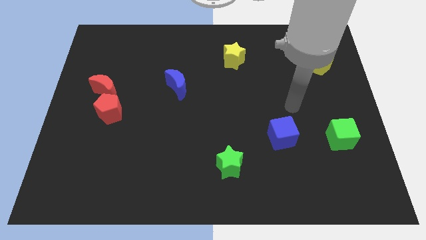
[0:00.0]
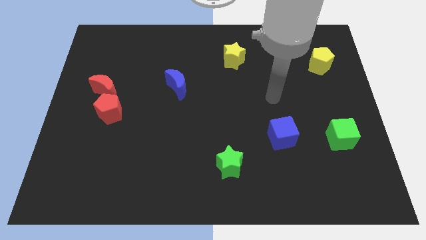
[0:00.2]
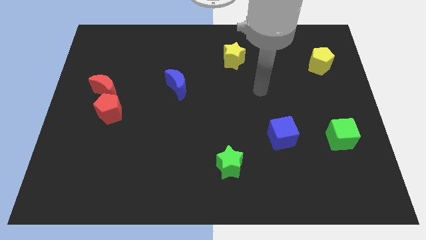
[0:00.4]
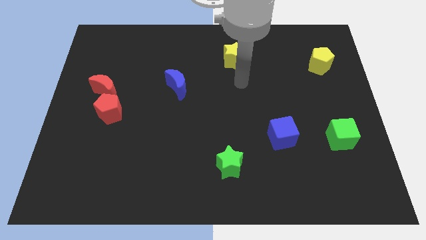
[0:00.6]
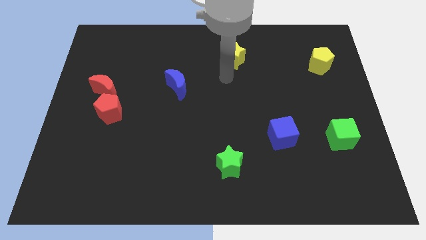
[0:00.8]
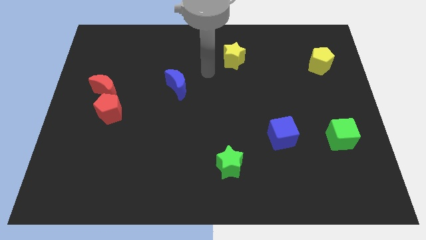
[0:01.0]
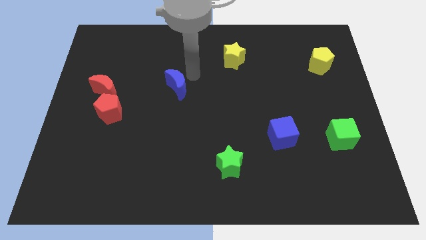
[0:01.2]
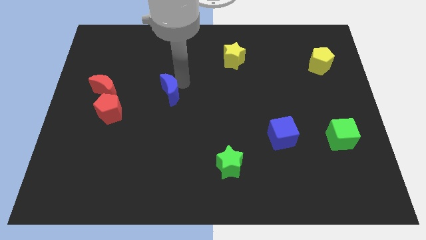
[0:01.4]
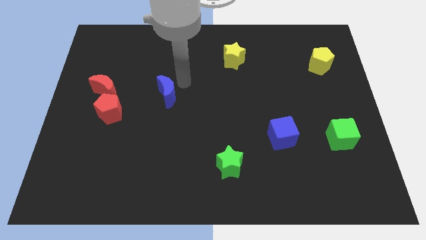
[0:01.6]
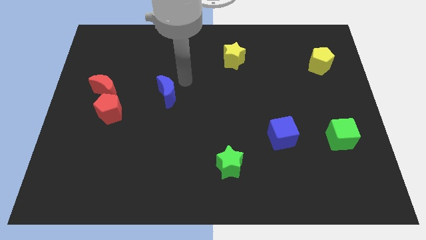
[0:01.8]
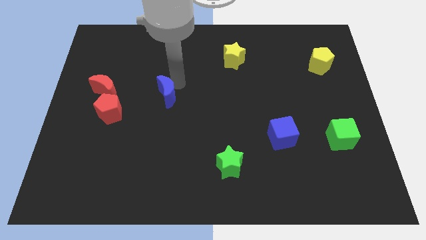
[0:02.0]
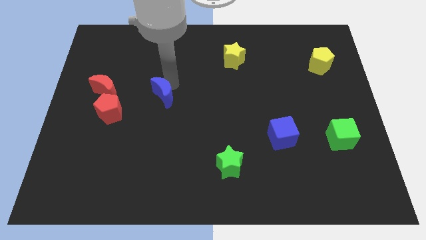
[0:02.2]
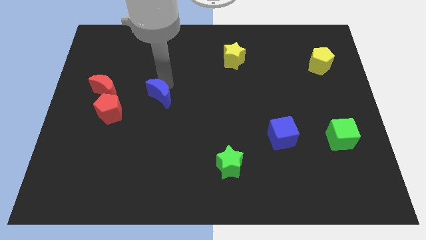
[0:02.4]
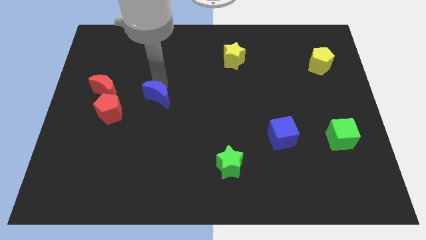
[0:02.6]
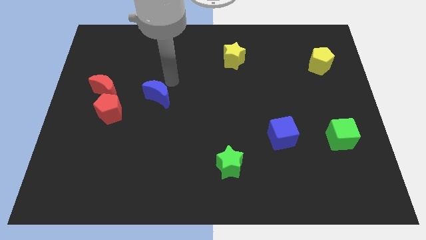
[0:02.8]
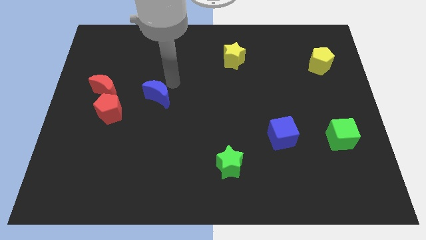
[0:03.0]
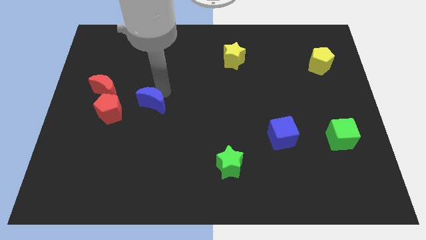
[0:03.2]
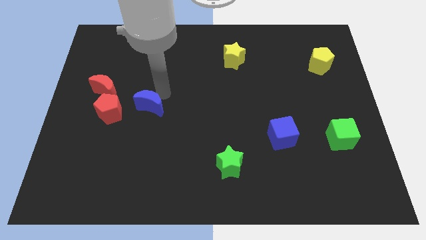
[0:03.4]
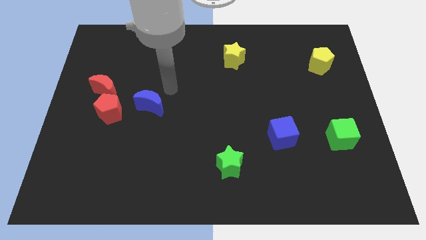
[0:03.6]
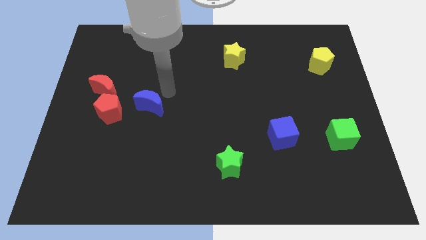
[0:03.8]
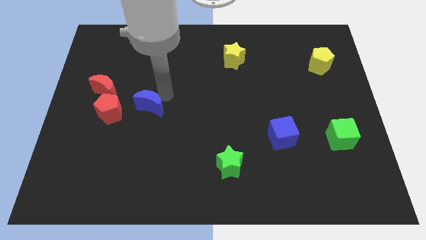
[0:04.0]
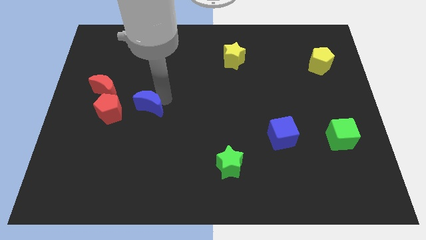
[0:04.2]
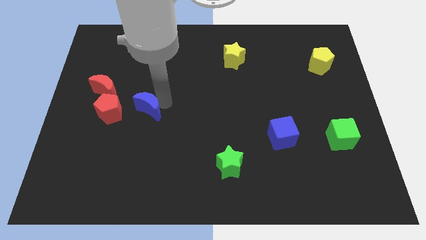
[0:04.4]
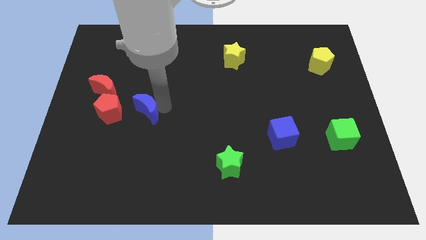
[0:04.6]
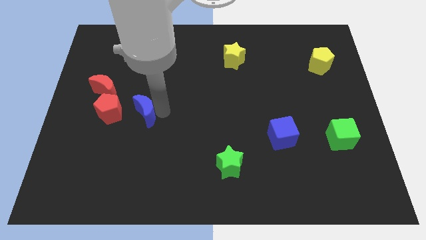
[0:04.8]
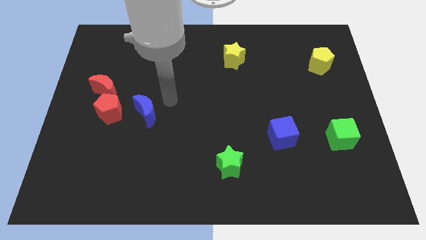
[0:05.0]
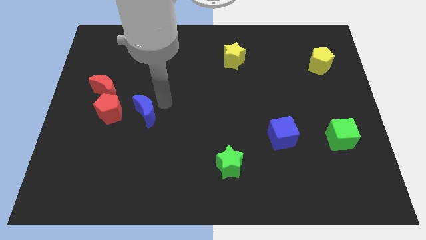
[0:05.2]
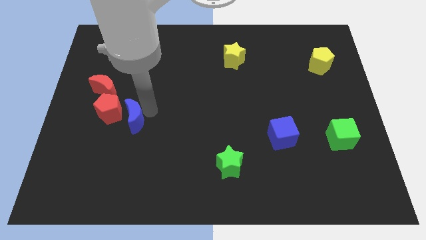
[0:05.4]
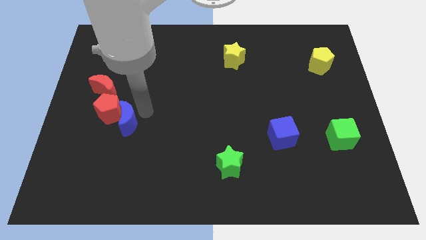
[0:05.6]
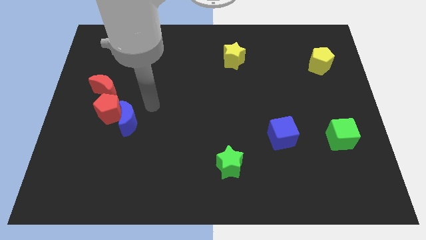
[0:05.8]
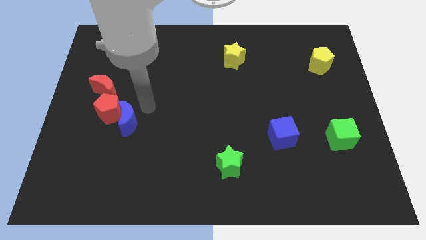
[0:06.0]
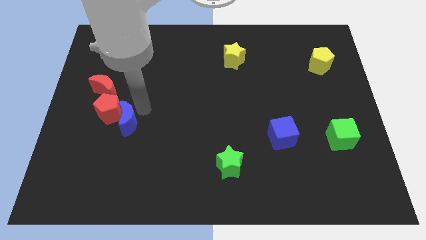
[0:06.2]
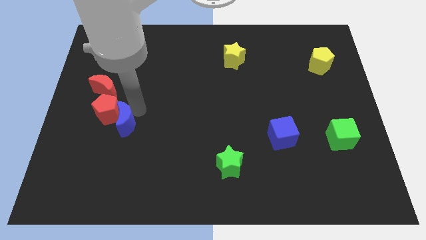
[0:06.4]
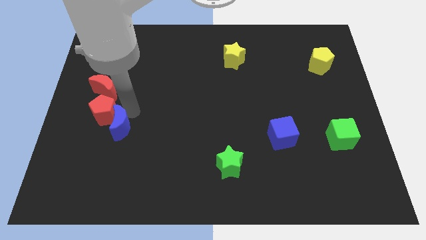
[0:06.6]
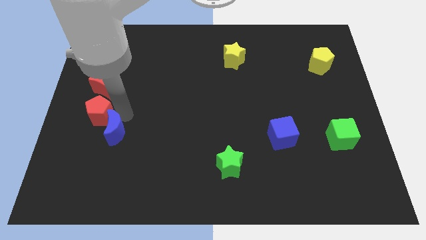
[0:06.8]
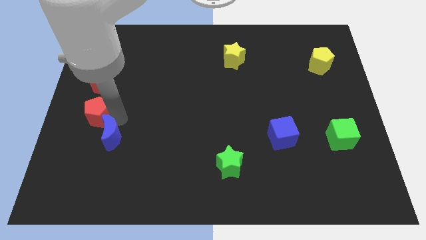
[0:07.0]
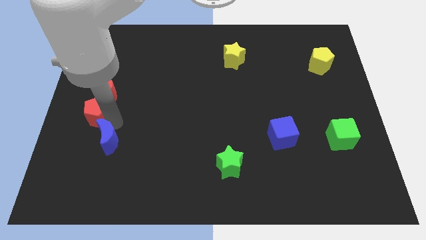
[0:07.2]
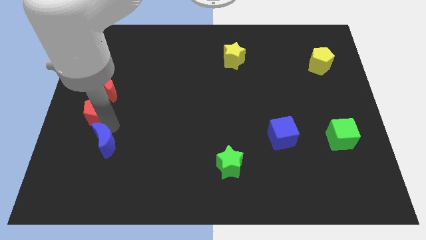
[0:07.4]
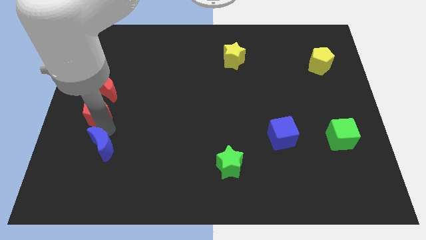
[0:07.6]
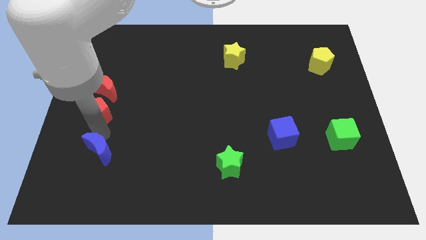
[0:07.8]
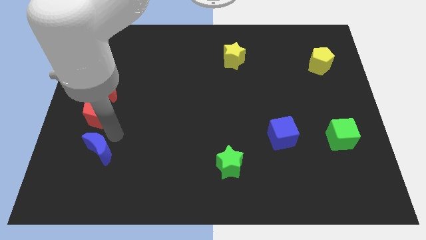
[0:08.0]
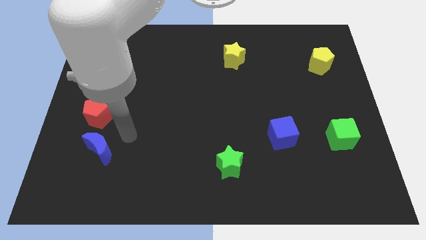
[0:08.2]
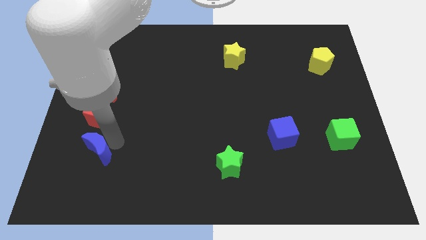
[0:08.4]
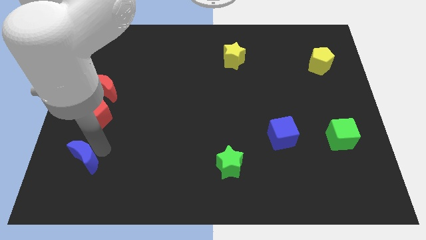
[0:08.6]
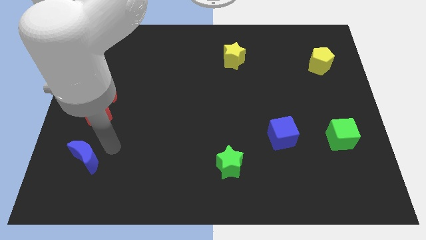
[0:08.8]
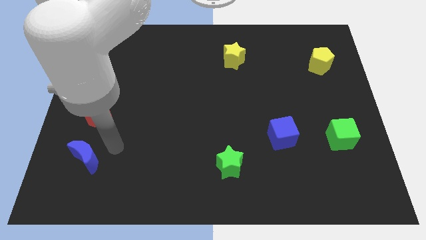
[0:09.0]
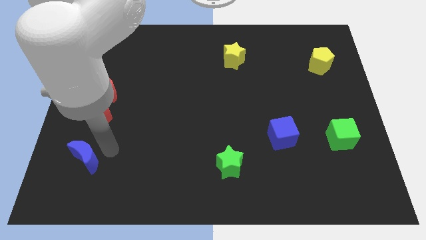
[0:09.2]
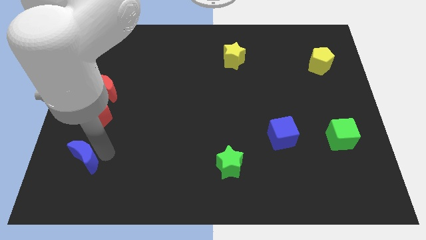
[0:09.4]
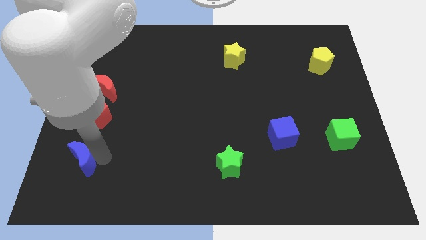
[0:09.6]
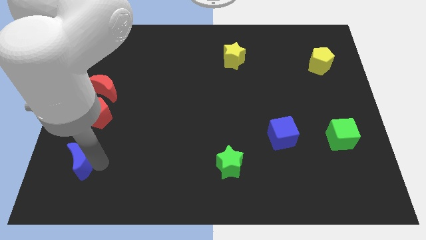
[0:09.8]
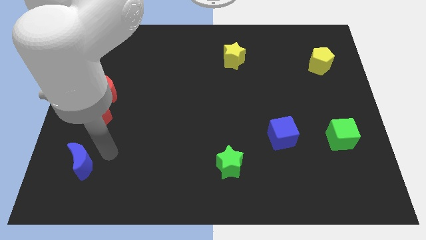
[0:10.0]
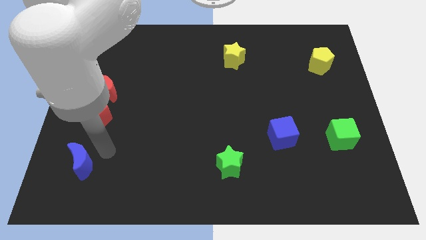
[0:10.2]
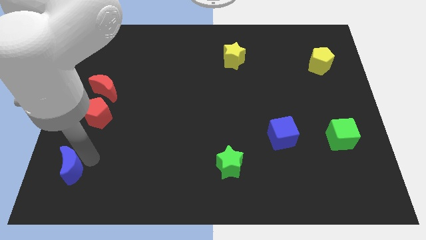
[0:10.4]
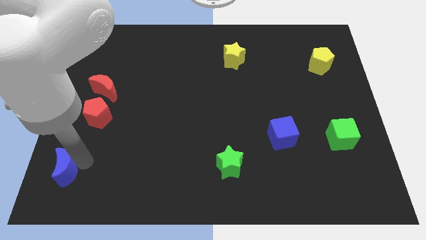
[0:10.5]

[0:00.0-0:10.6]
put the blue moon to the bottom left corner

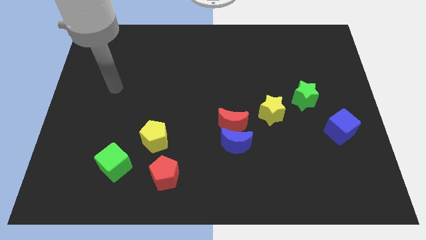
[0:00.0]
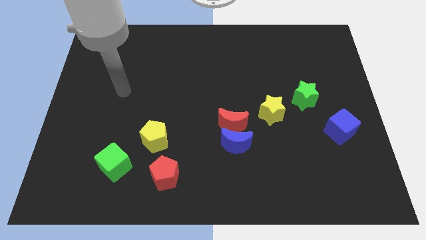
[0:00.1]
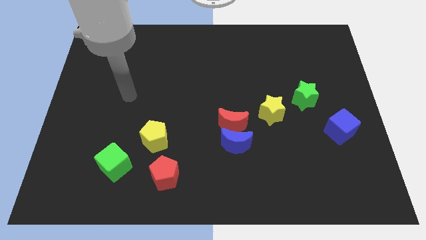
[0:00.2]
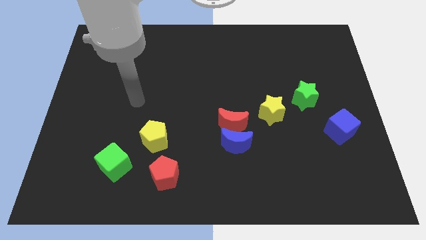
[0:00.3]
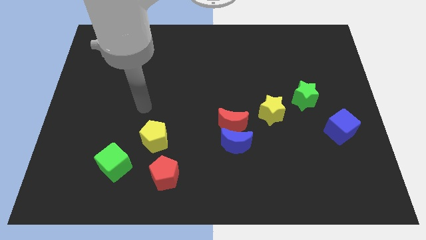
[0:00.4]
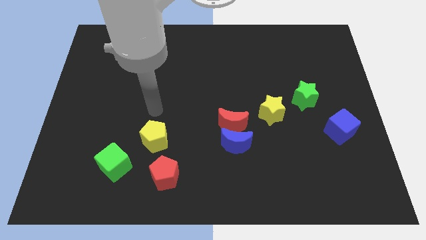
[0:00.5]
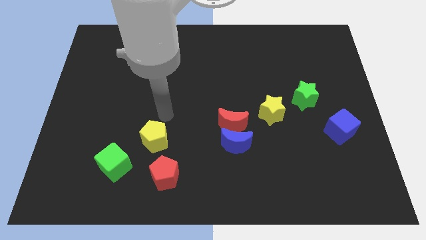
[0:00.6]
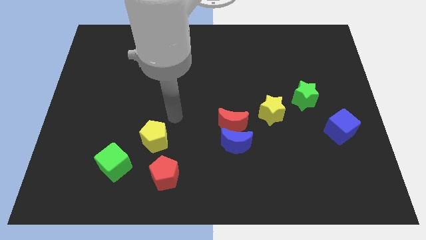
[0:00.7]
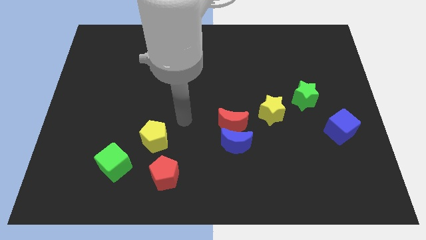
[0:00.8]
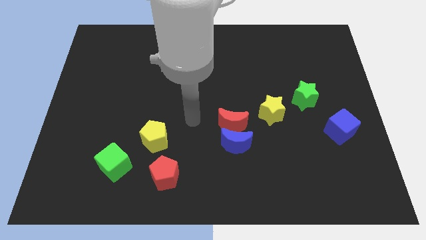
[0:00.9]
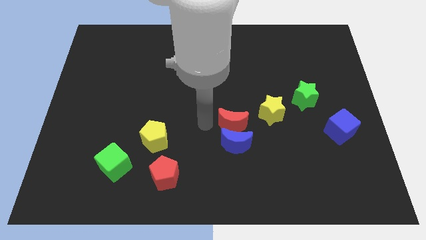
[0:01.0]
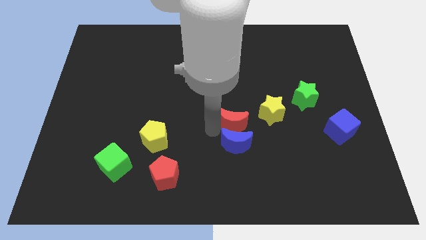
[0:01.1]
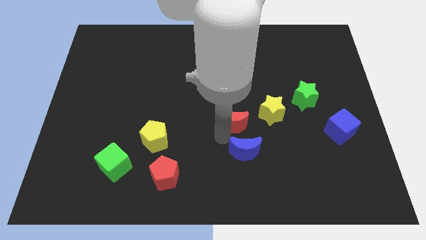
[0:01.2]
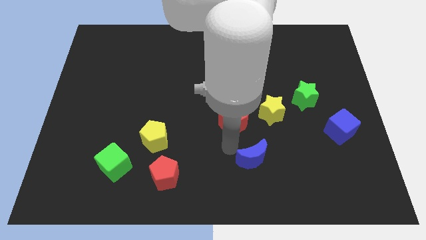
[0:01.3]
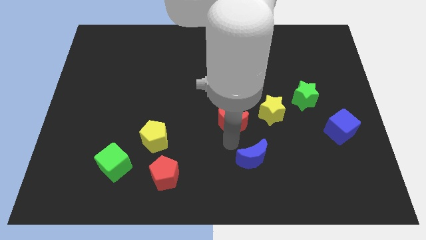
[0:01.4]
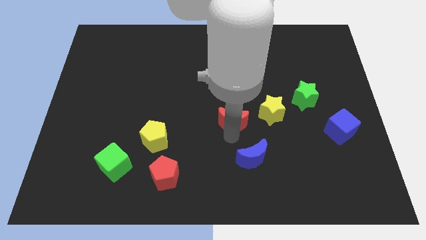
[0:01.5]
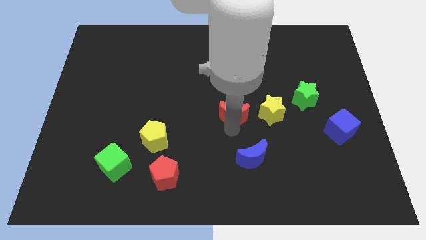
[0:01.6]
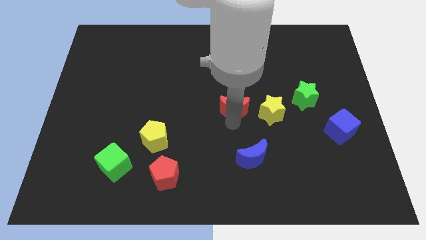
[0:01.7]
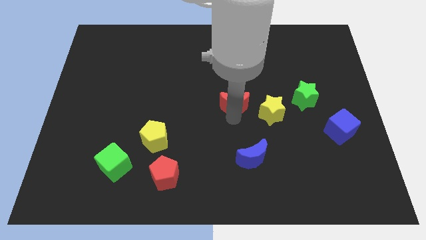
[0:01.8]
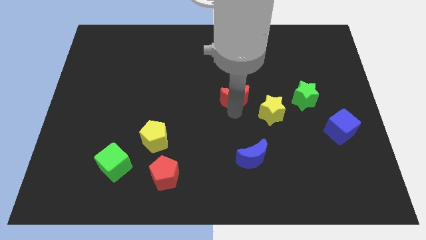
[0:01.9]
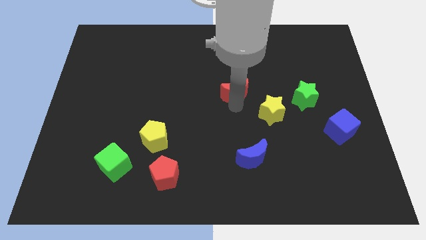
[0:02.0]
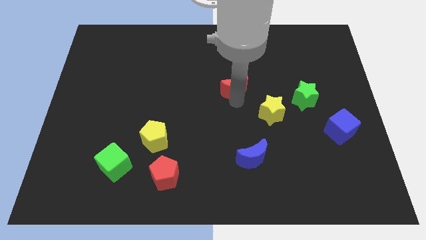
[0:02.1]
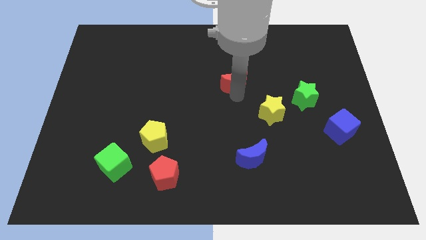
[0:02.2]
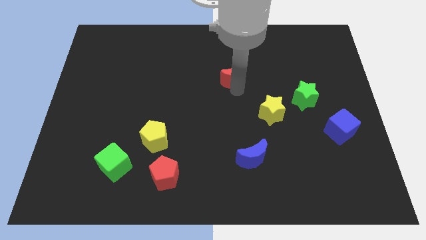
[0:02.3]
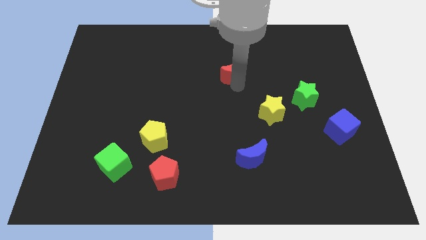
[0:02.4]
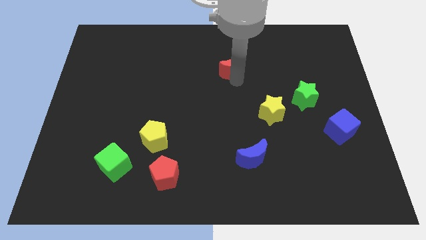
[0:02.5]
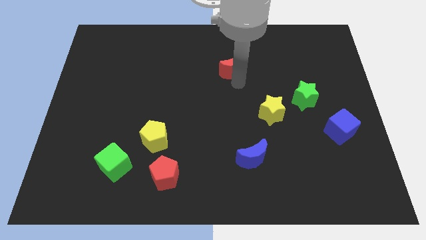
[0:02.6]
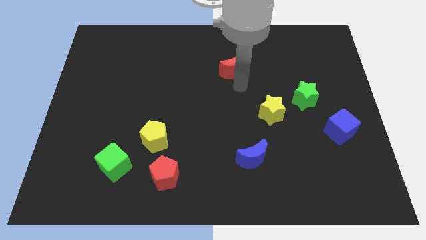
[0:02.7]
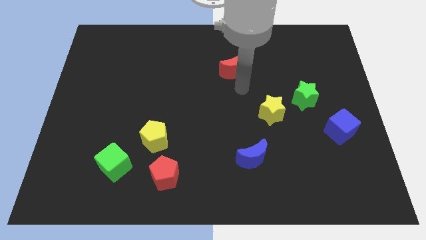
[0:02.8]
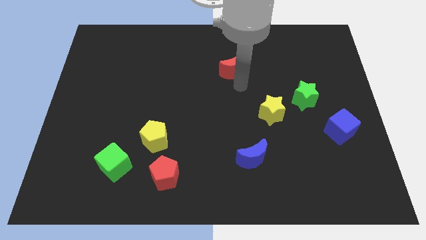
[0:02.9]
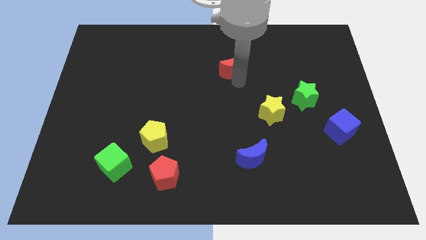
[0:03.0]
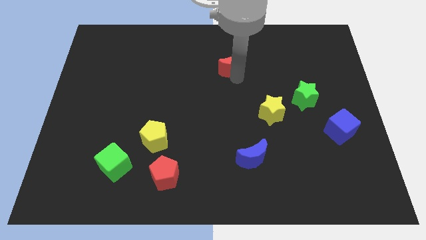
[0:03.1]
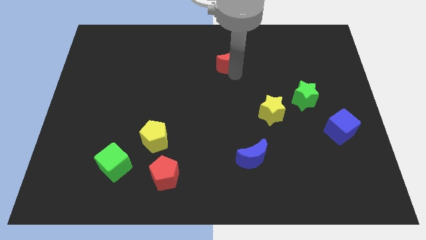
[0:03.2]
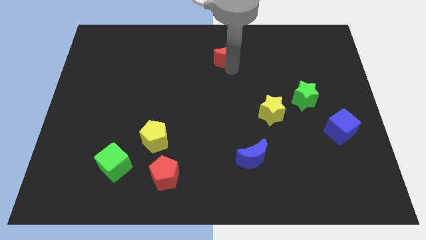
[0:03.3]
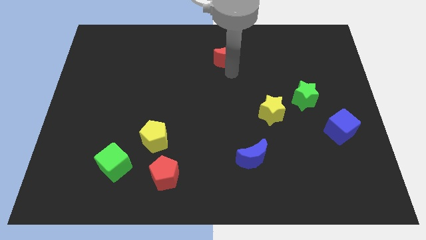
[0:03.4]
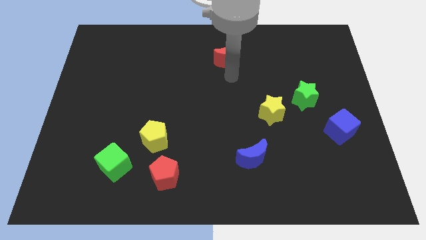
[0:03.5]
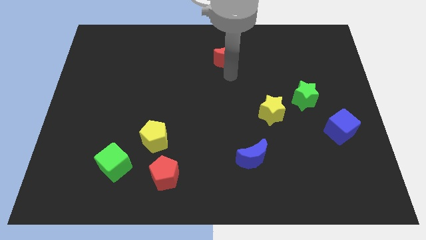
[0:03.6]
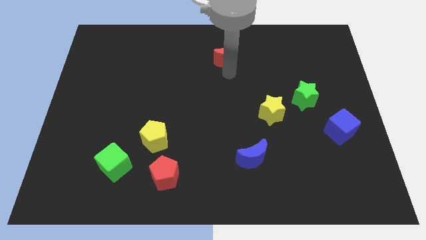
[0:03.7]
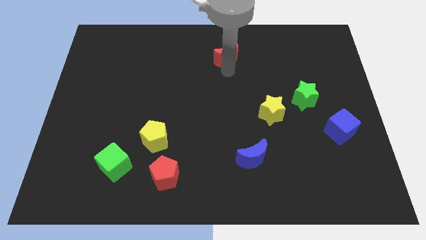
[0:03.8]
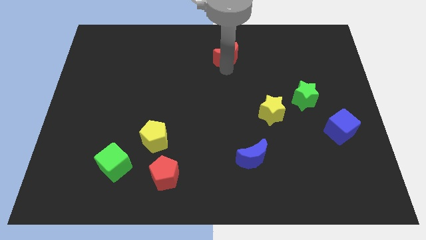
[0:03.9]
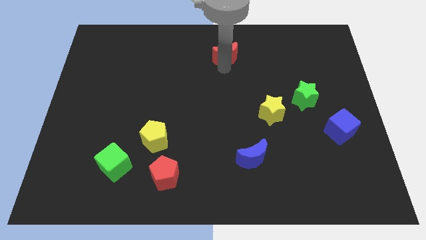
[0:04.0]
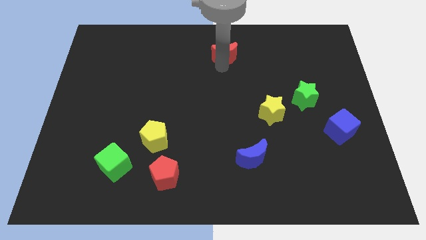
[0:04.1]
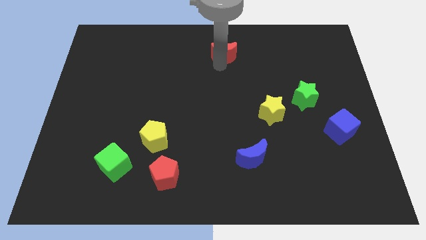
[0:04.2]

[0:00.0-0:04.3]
push the red moon to the towards your base
